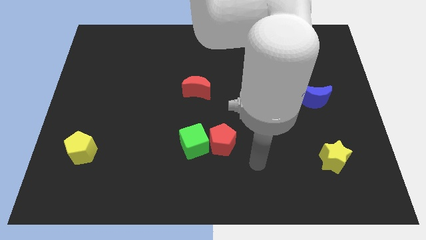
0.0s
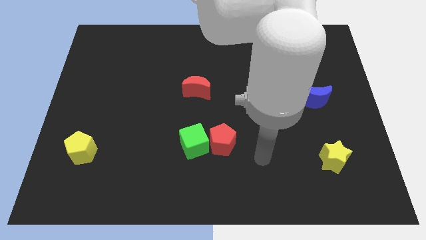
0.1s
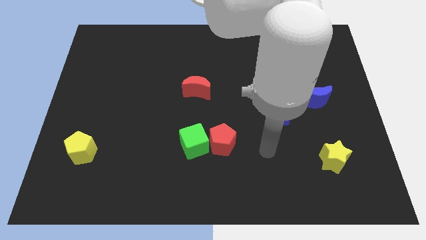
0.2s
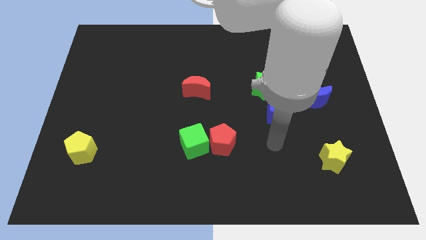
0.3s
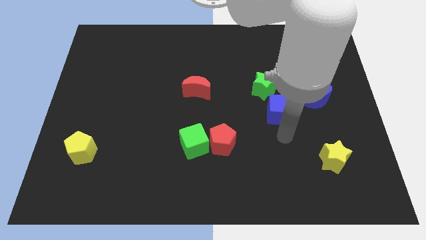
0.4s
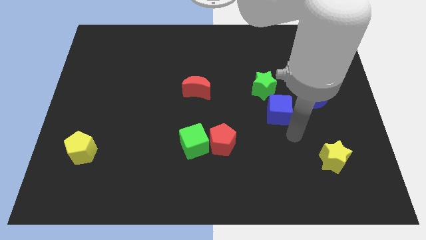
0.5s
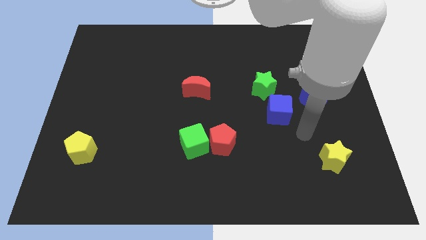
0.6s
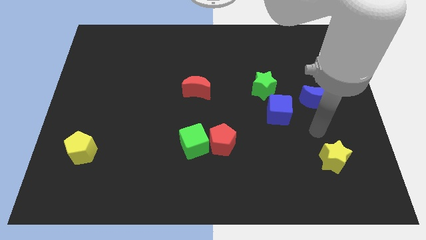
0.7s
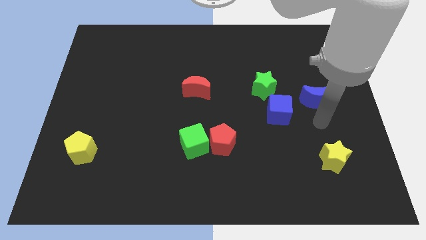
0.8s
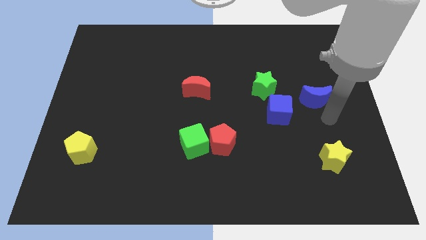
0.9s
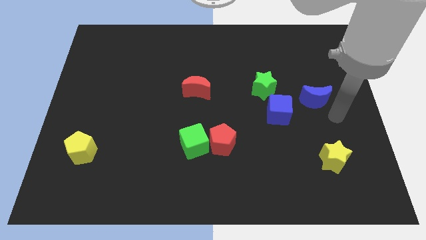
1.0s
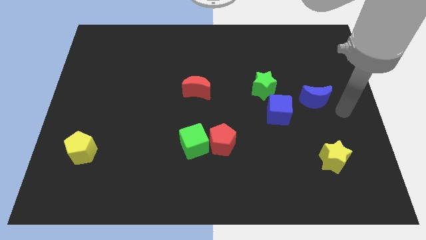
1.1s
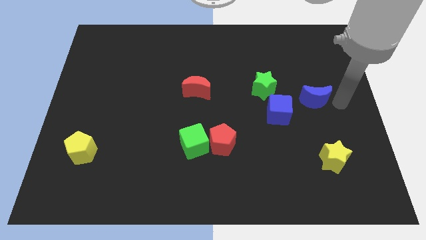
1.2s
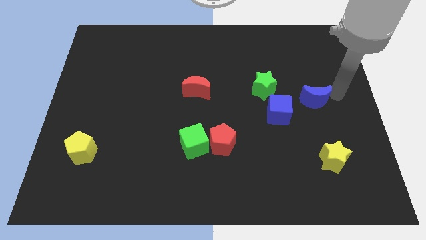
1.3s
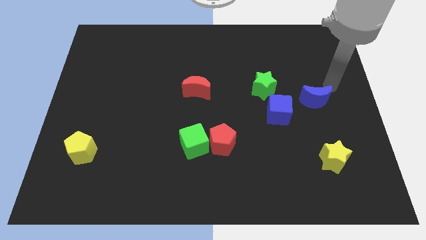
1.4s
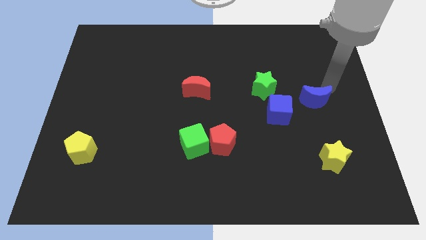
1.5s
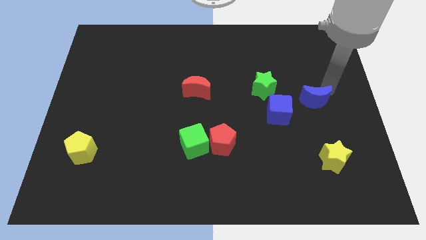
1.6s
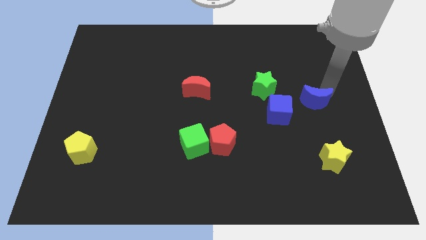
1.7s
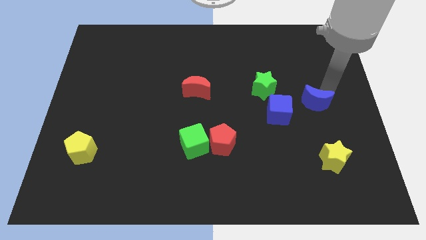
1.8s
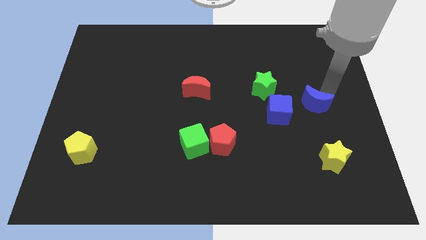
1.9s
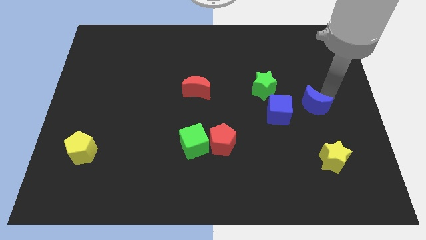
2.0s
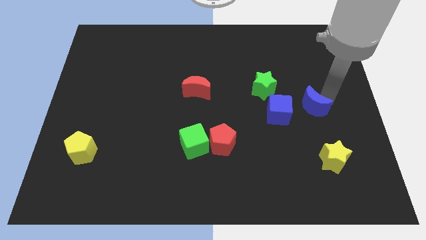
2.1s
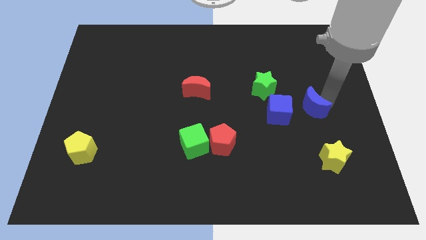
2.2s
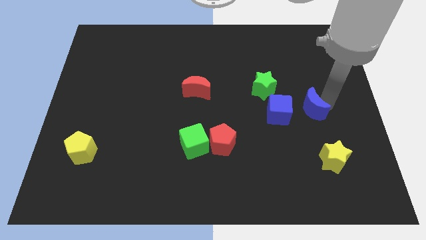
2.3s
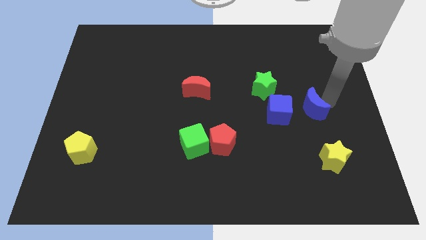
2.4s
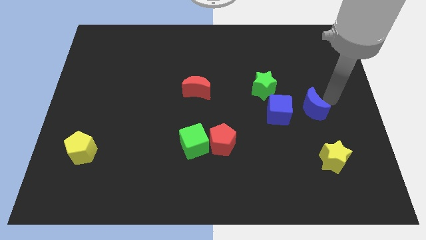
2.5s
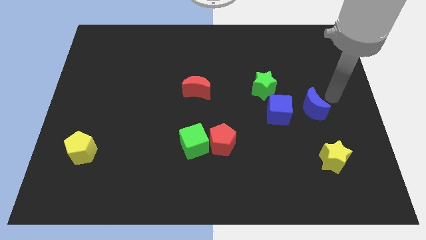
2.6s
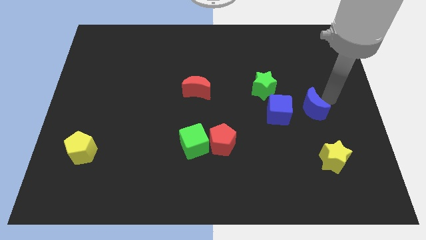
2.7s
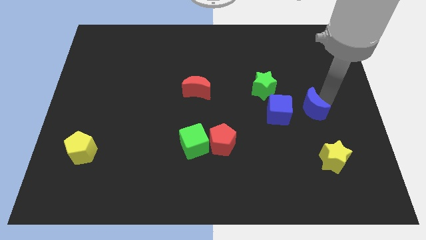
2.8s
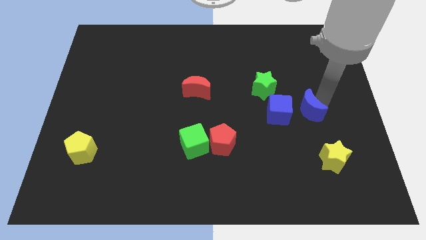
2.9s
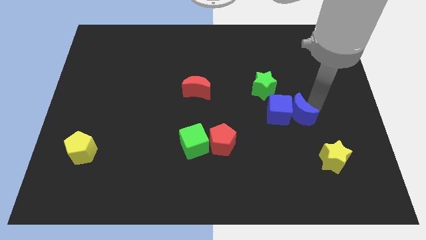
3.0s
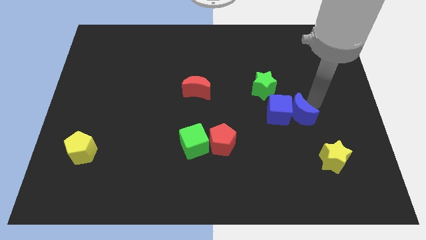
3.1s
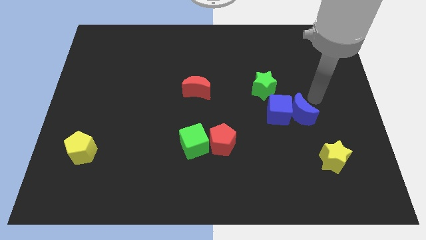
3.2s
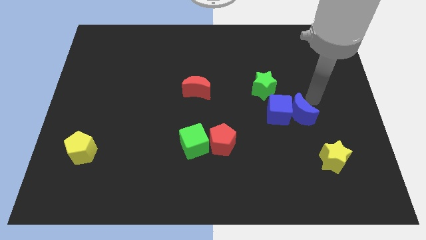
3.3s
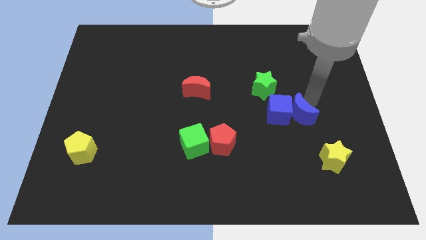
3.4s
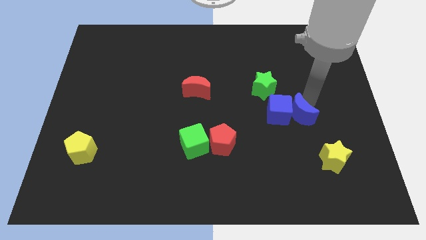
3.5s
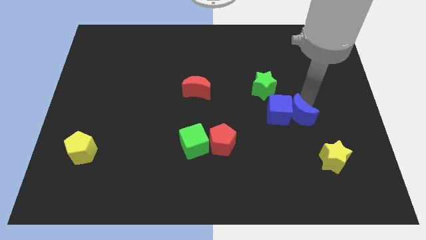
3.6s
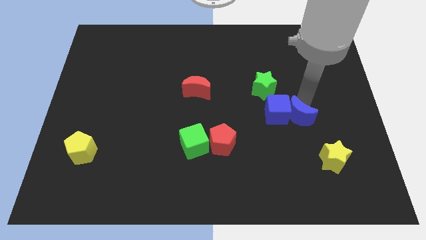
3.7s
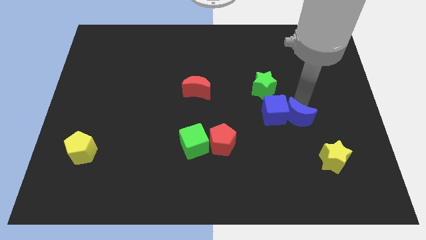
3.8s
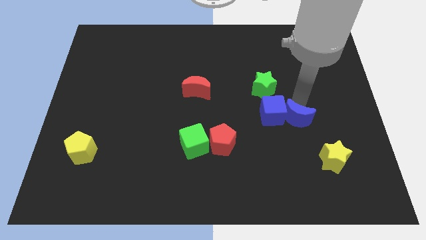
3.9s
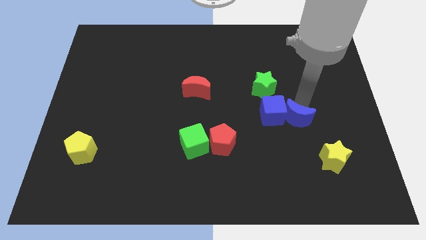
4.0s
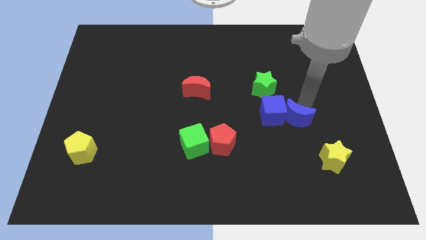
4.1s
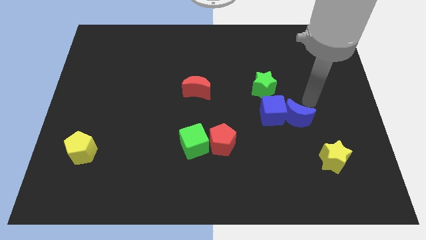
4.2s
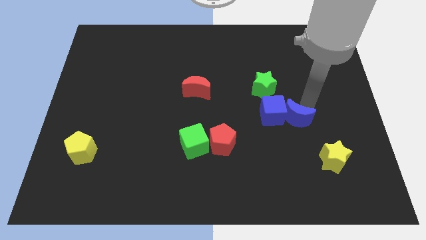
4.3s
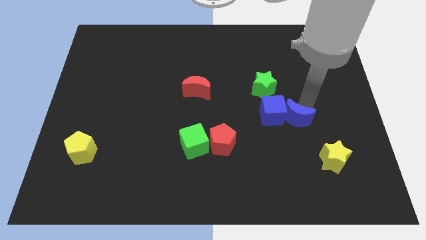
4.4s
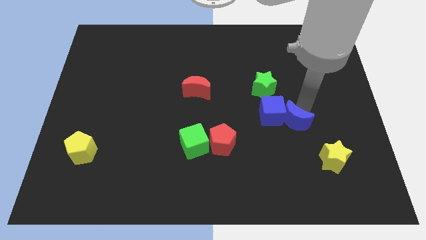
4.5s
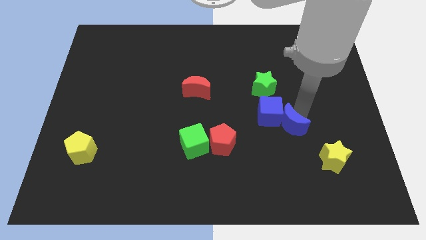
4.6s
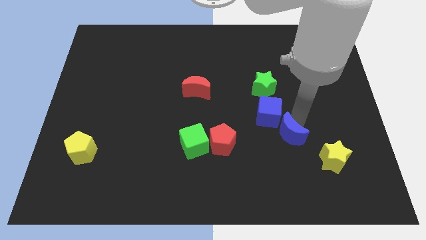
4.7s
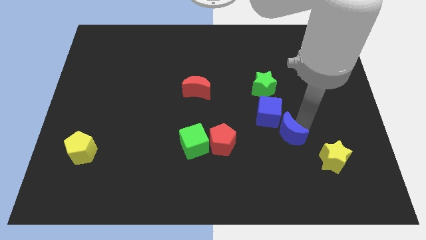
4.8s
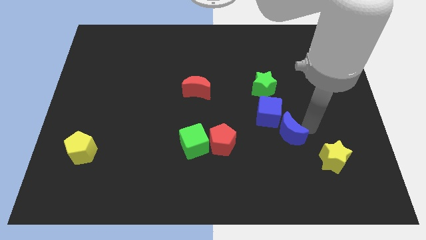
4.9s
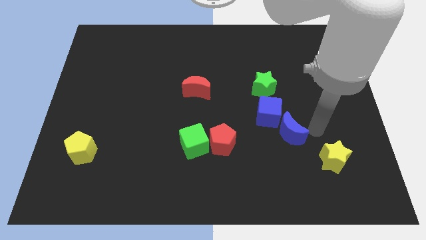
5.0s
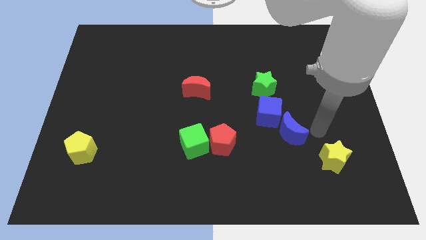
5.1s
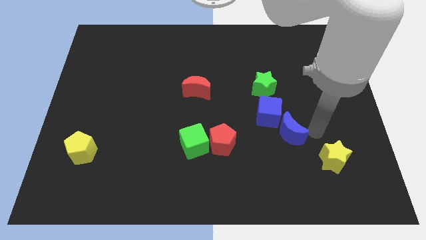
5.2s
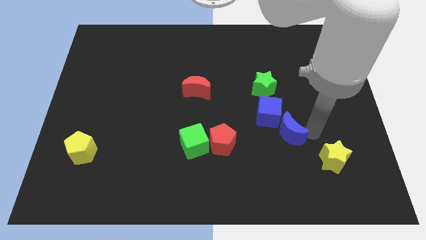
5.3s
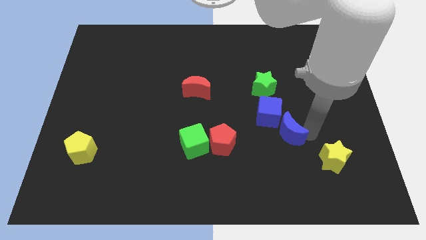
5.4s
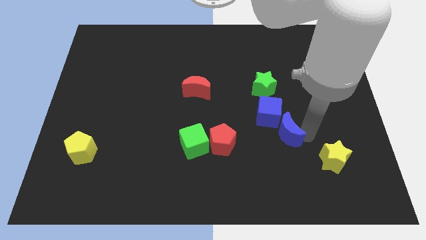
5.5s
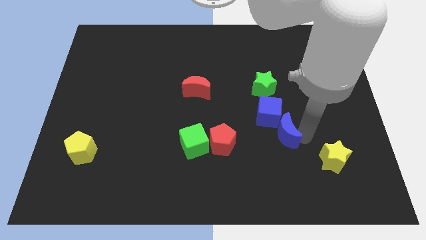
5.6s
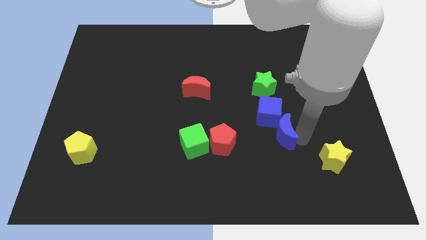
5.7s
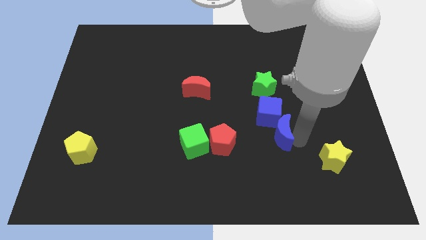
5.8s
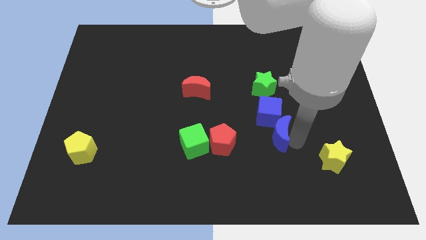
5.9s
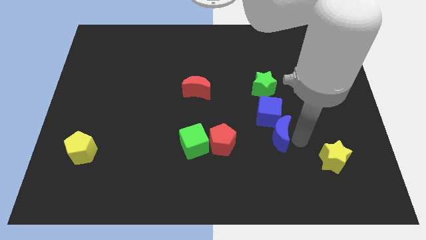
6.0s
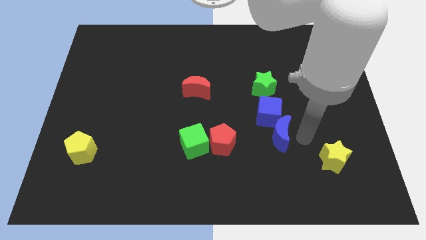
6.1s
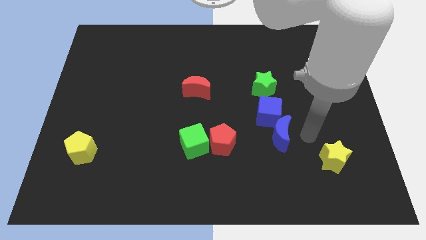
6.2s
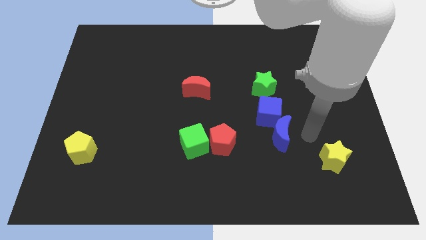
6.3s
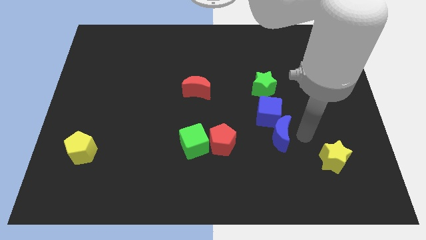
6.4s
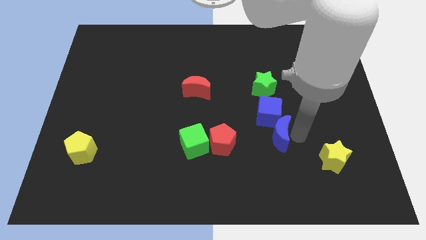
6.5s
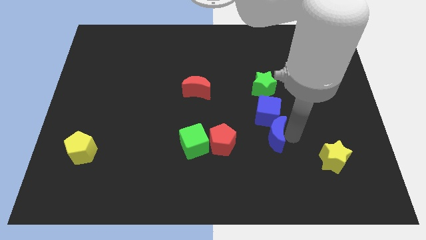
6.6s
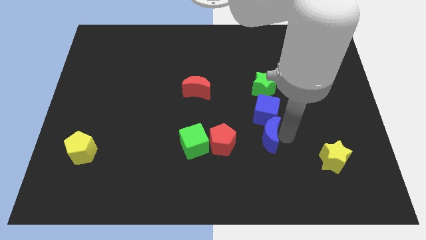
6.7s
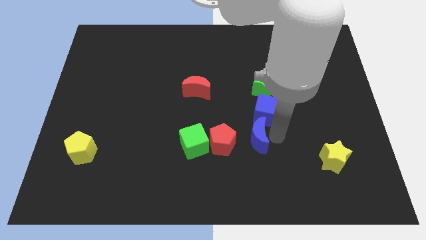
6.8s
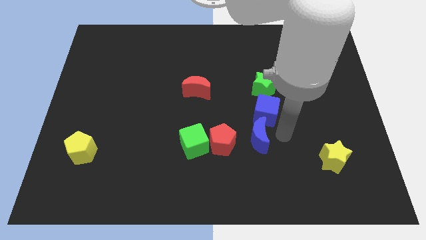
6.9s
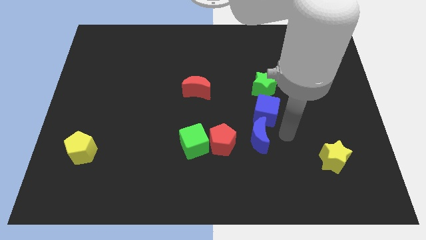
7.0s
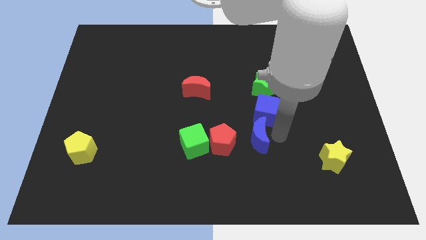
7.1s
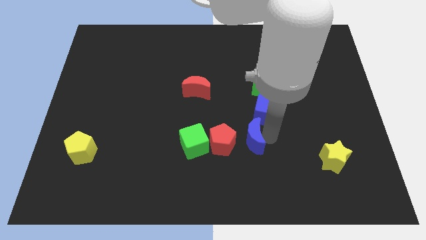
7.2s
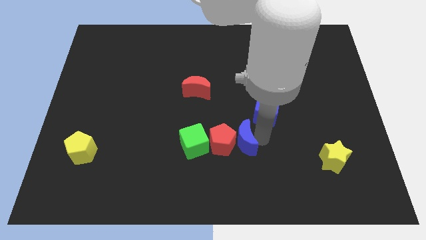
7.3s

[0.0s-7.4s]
move the blue moon towards the red pentagon
